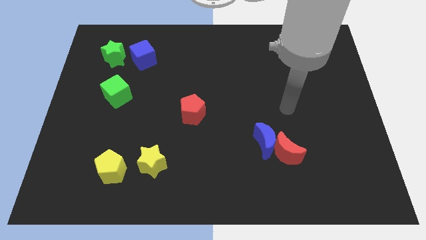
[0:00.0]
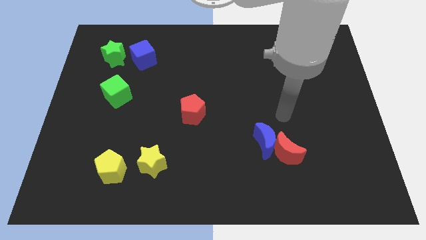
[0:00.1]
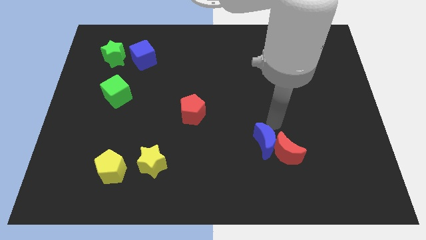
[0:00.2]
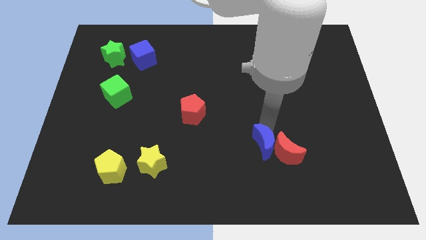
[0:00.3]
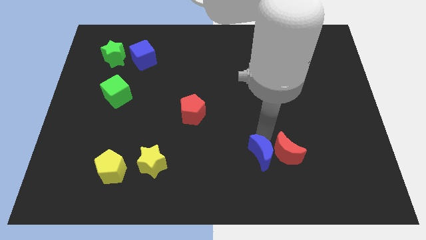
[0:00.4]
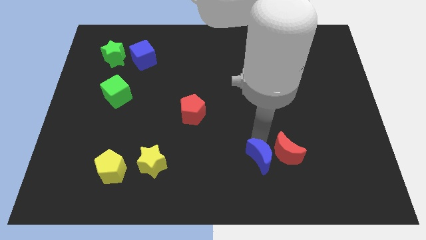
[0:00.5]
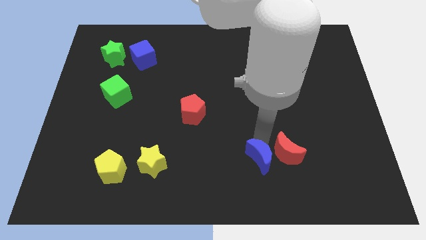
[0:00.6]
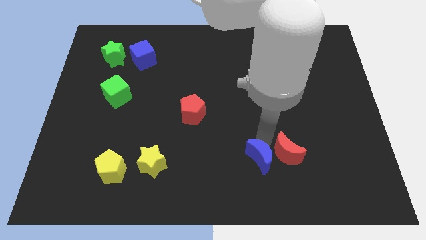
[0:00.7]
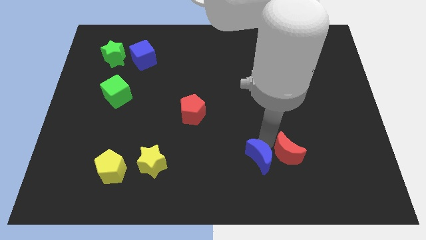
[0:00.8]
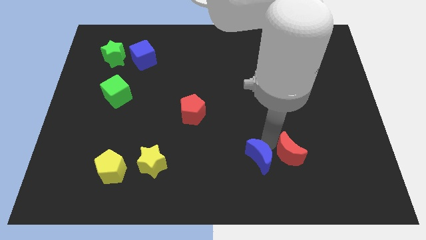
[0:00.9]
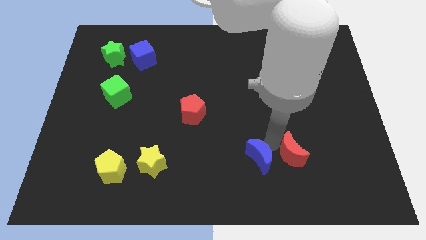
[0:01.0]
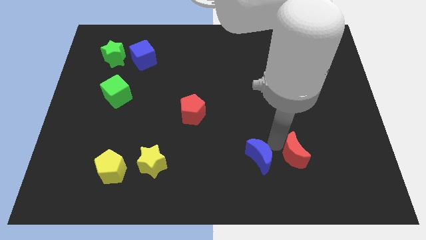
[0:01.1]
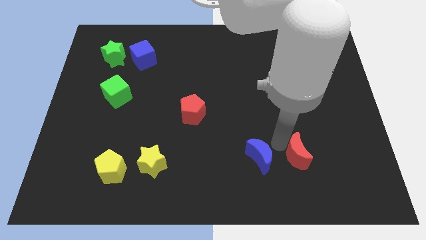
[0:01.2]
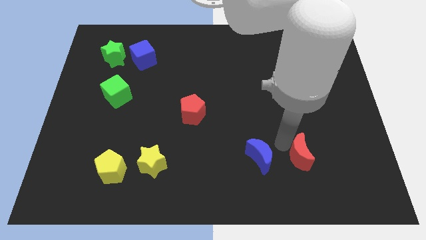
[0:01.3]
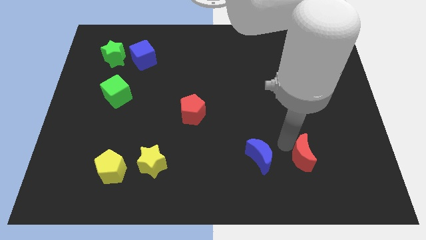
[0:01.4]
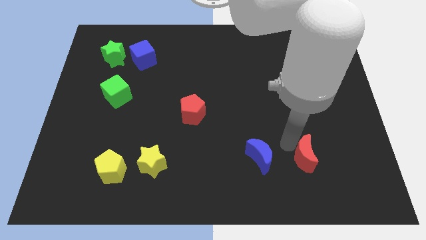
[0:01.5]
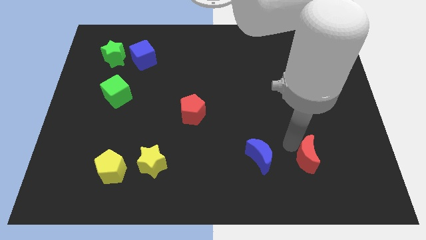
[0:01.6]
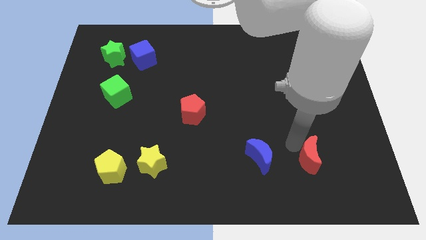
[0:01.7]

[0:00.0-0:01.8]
separate the red moon from the blue moon

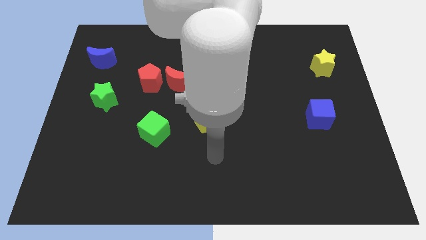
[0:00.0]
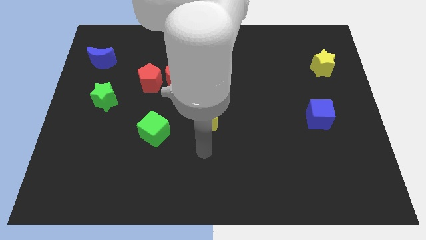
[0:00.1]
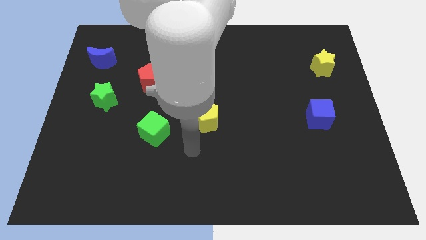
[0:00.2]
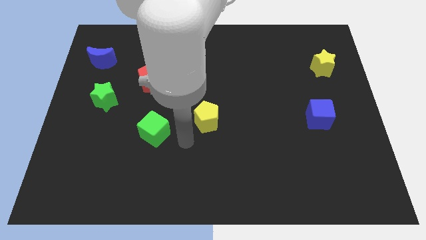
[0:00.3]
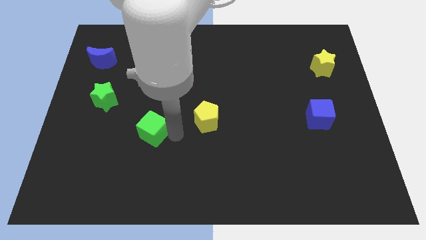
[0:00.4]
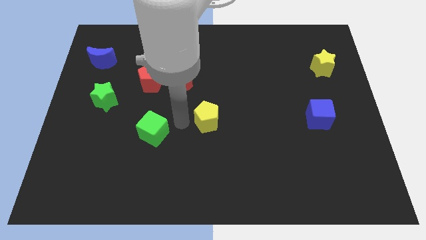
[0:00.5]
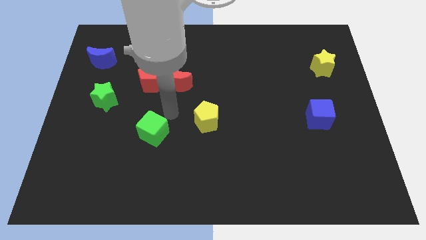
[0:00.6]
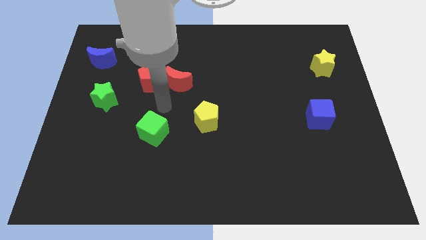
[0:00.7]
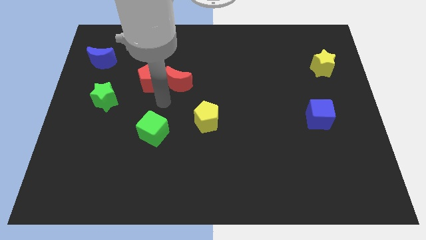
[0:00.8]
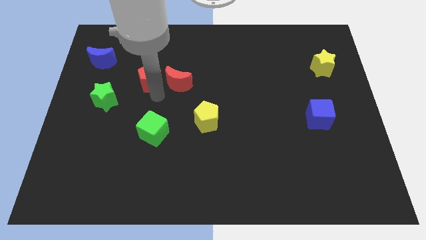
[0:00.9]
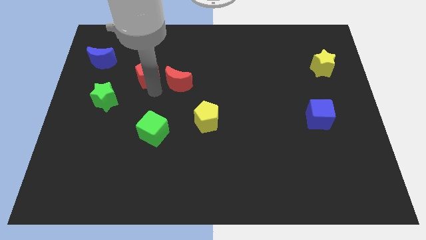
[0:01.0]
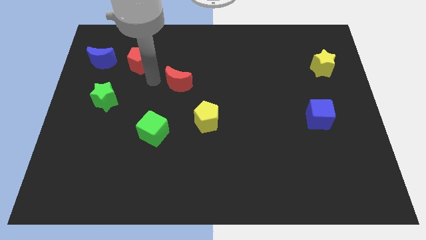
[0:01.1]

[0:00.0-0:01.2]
move the red moon away from the red pentagon

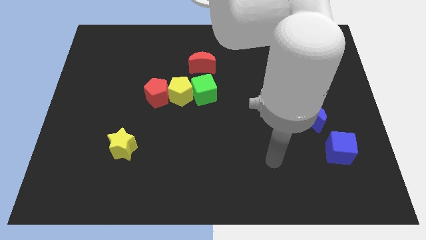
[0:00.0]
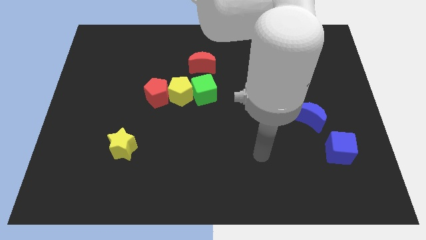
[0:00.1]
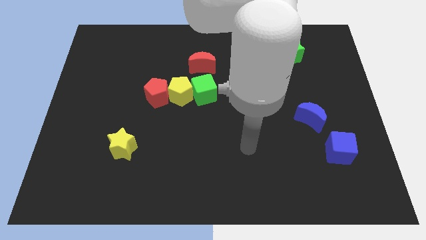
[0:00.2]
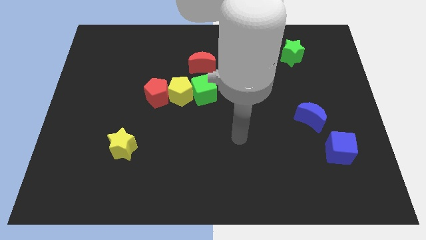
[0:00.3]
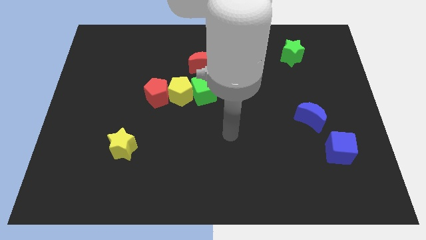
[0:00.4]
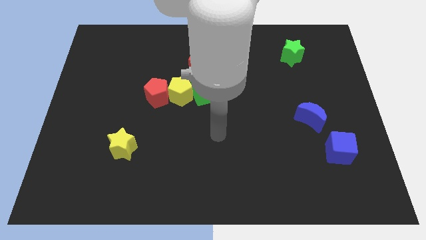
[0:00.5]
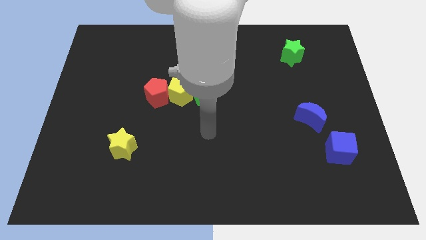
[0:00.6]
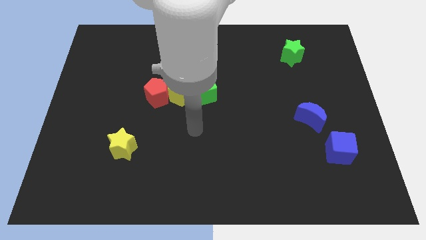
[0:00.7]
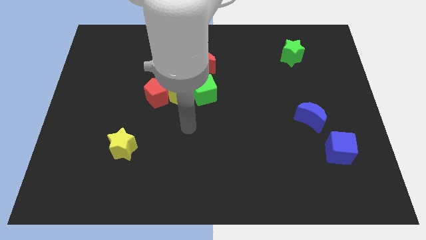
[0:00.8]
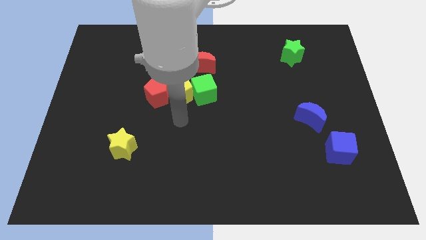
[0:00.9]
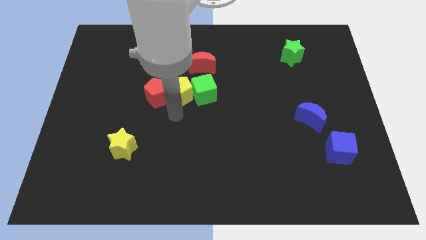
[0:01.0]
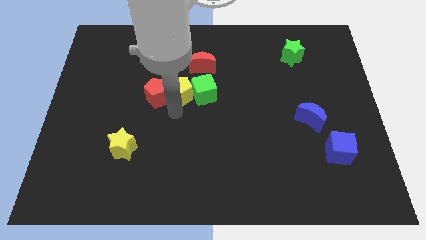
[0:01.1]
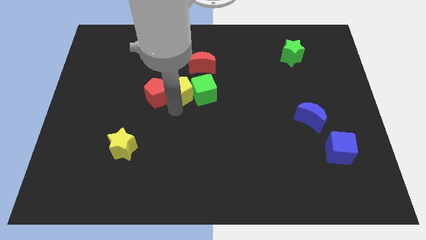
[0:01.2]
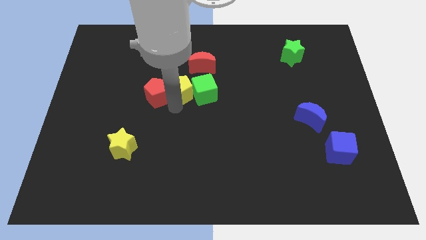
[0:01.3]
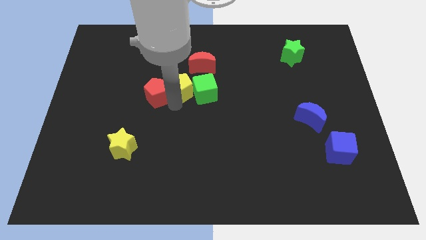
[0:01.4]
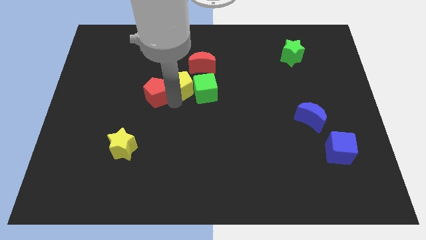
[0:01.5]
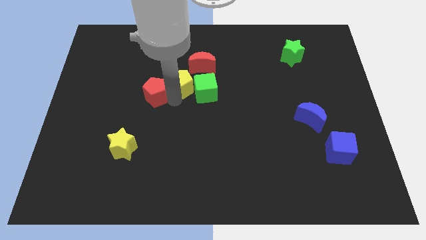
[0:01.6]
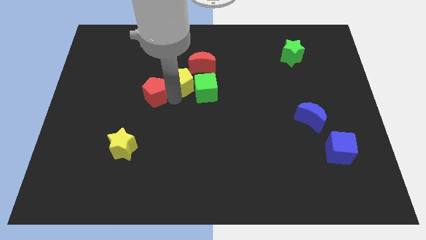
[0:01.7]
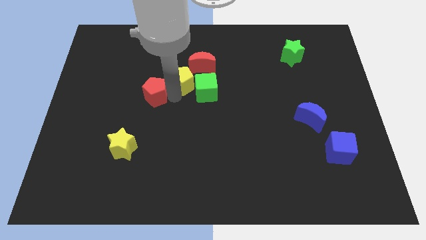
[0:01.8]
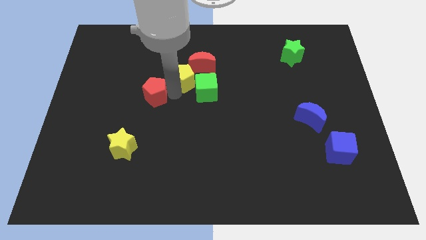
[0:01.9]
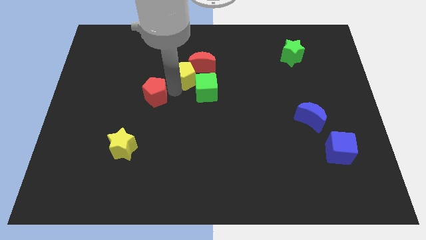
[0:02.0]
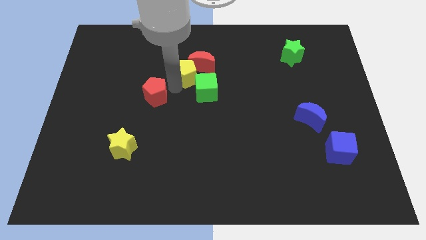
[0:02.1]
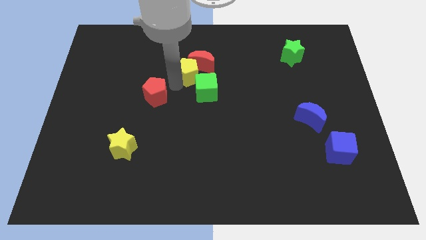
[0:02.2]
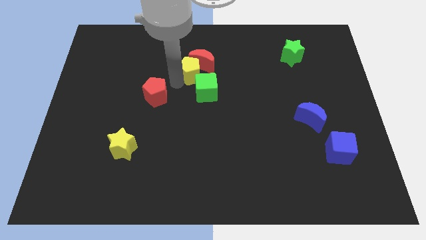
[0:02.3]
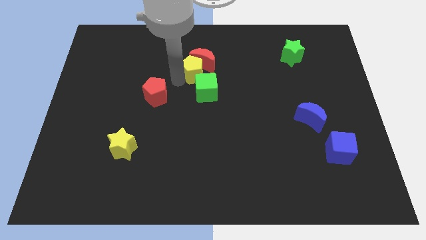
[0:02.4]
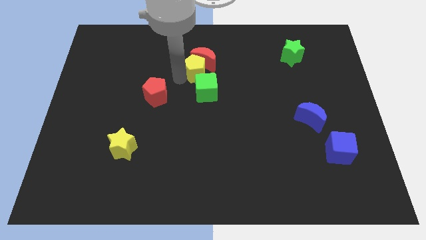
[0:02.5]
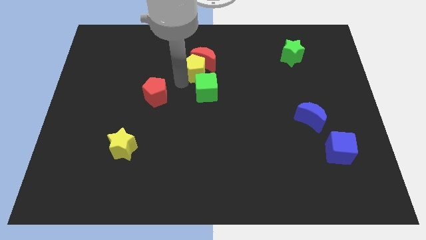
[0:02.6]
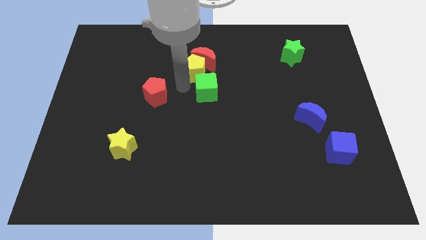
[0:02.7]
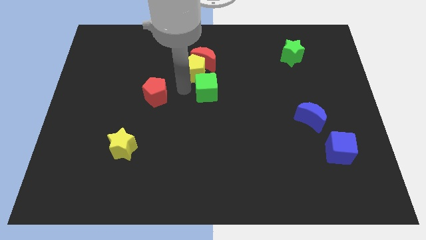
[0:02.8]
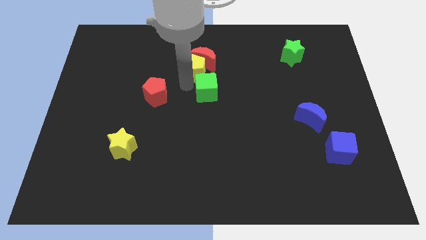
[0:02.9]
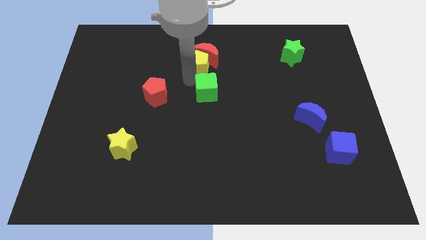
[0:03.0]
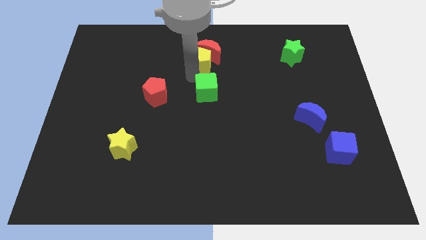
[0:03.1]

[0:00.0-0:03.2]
pull the yellow pentagon apart from the green cube and red pentagon

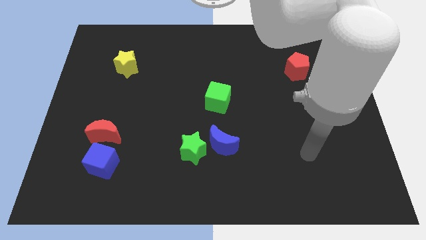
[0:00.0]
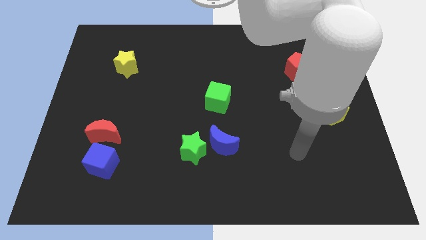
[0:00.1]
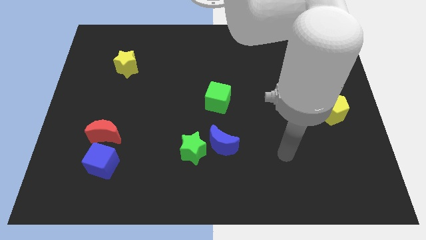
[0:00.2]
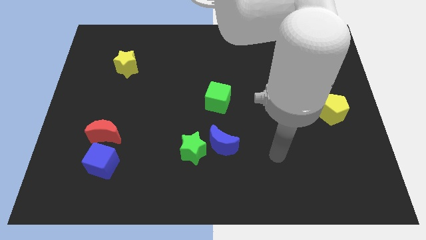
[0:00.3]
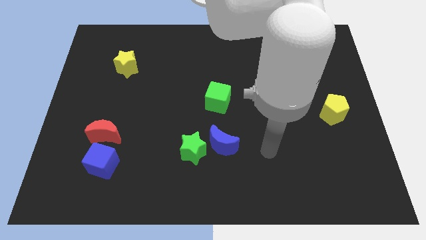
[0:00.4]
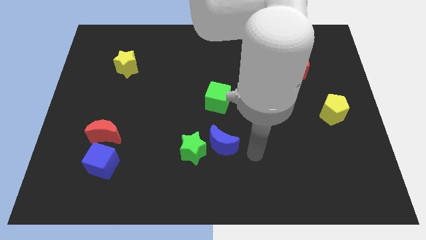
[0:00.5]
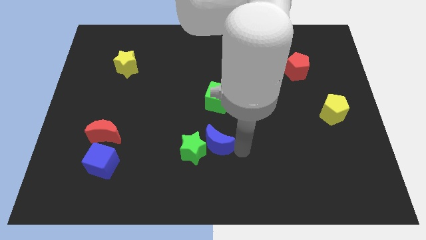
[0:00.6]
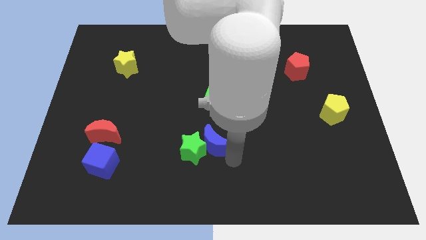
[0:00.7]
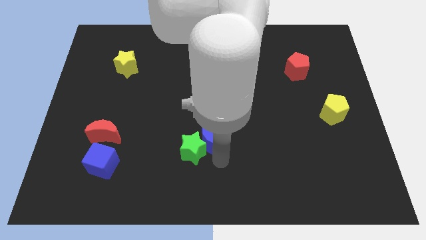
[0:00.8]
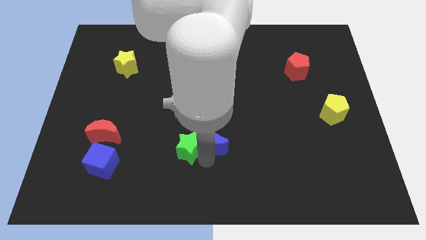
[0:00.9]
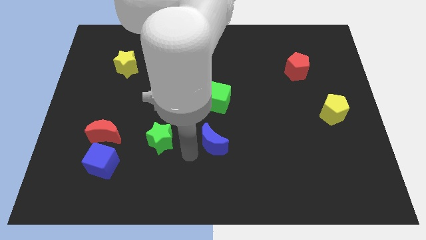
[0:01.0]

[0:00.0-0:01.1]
separate the blue moon from the green star

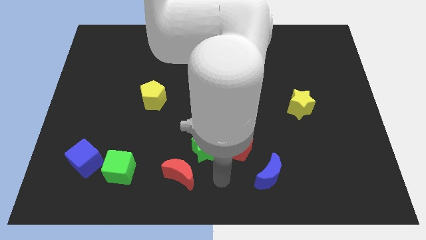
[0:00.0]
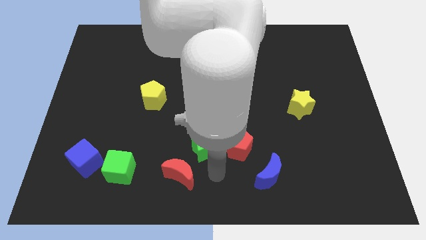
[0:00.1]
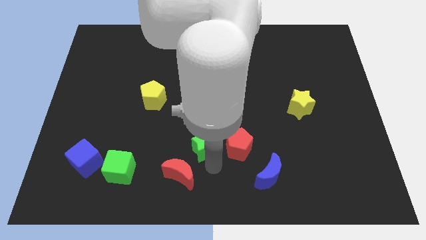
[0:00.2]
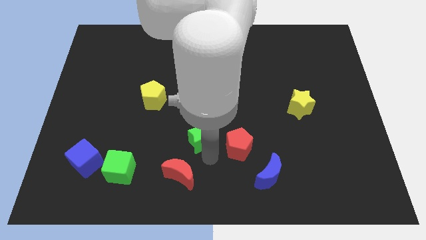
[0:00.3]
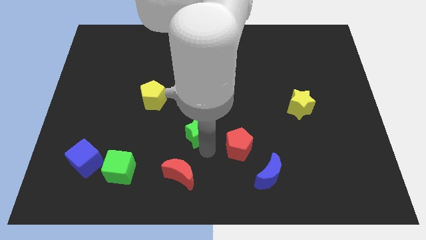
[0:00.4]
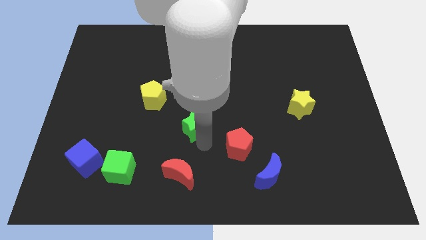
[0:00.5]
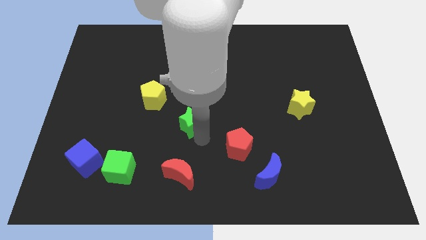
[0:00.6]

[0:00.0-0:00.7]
separate the green star from the red pentagon and red moon

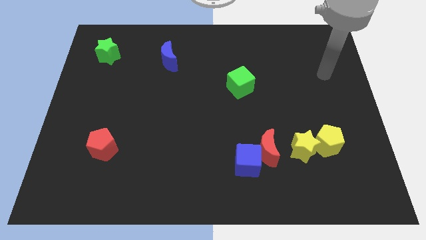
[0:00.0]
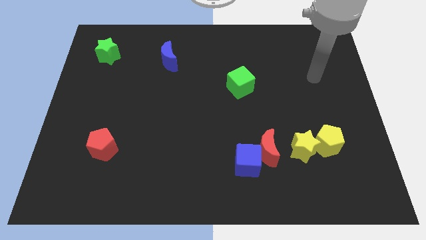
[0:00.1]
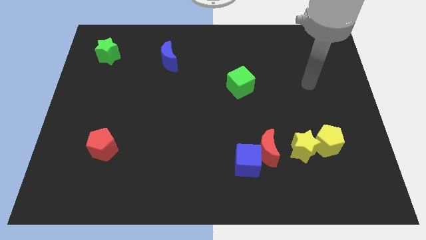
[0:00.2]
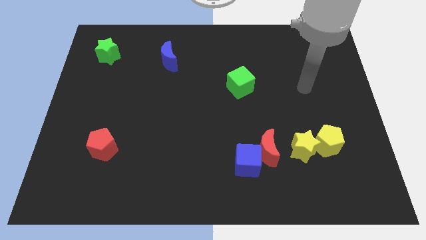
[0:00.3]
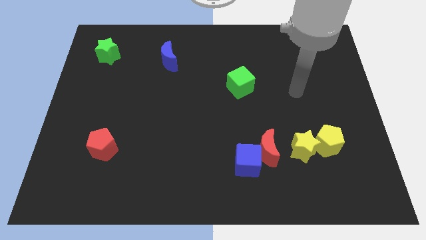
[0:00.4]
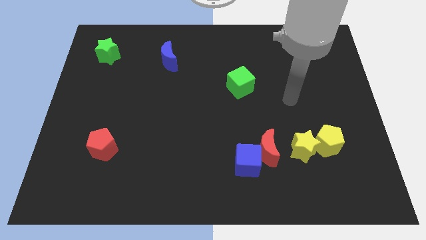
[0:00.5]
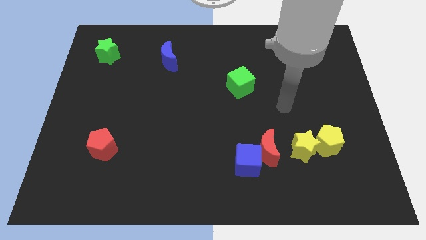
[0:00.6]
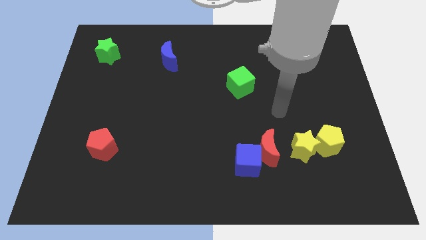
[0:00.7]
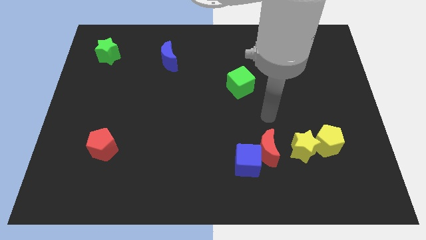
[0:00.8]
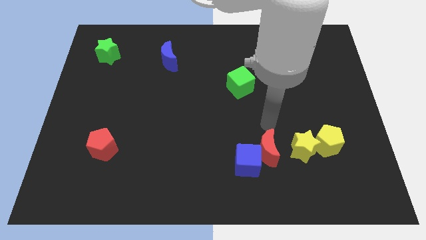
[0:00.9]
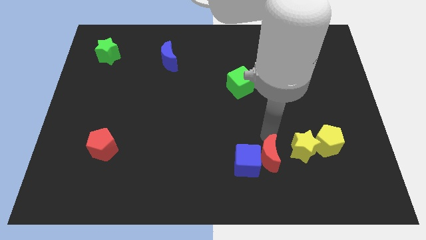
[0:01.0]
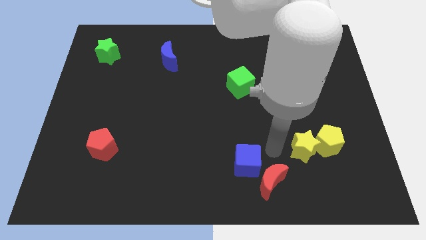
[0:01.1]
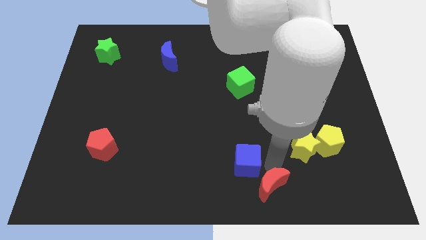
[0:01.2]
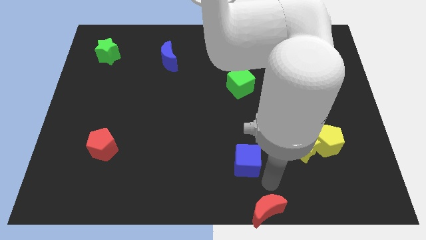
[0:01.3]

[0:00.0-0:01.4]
separate the blue cube from the red moon
